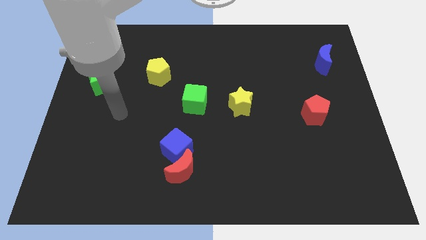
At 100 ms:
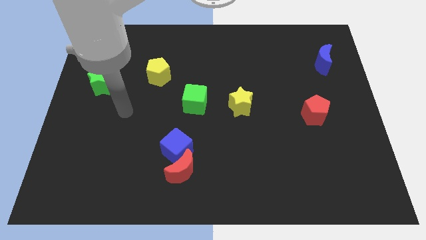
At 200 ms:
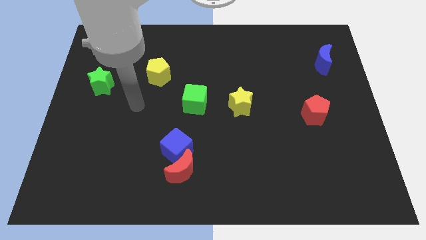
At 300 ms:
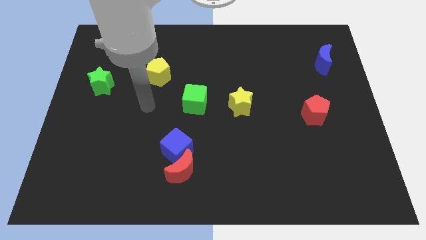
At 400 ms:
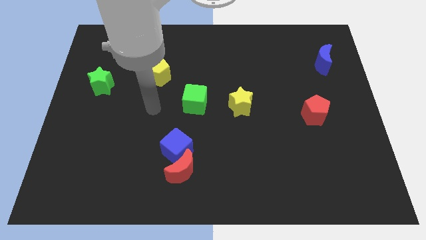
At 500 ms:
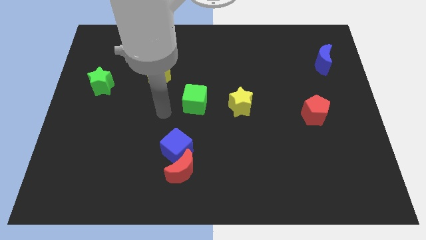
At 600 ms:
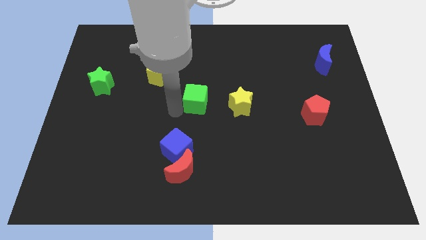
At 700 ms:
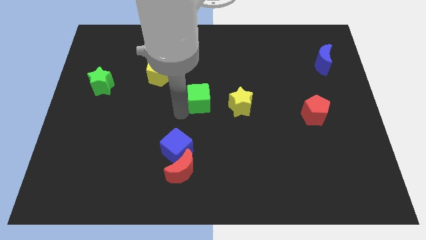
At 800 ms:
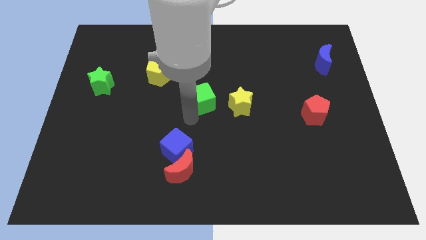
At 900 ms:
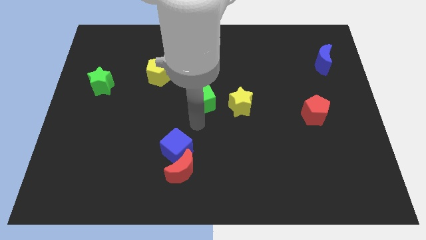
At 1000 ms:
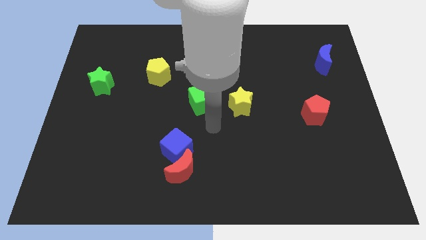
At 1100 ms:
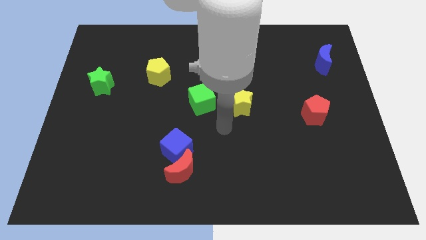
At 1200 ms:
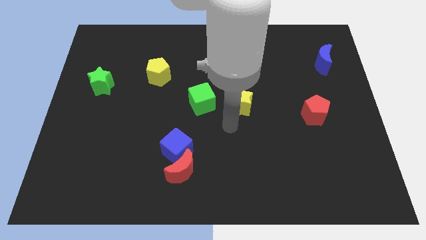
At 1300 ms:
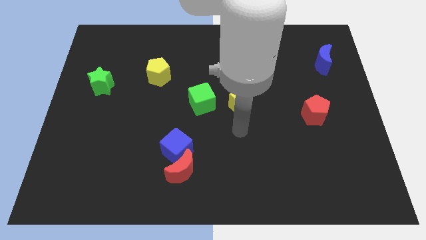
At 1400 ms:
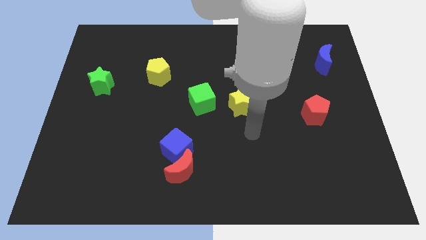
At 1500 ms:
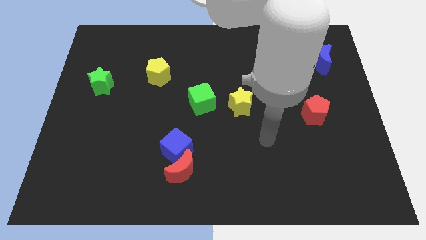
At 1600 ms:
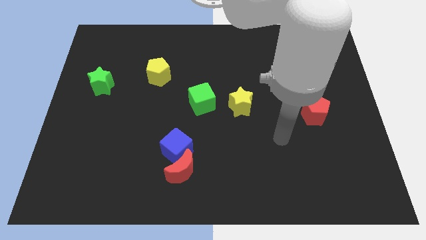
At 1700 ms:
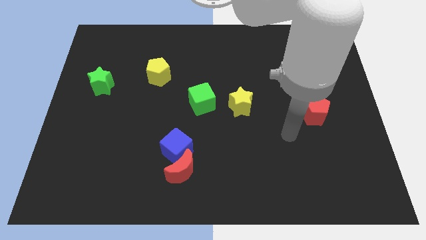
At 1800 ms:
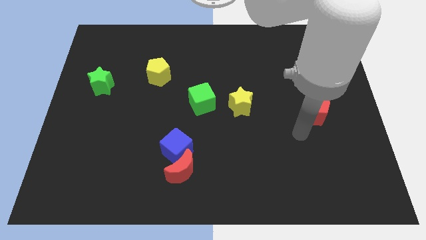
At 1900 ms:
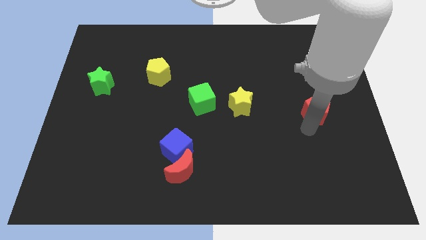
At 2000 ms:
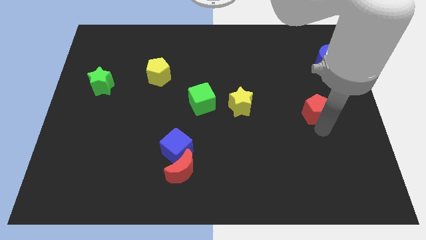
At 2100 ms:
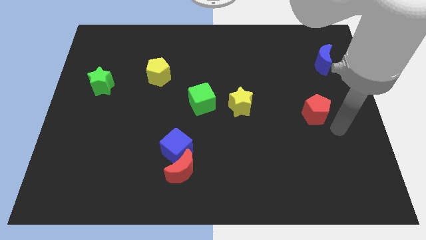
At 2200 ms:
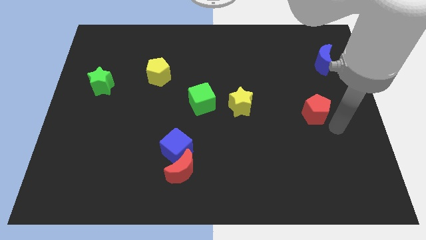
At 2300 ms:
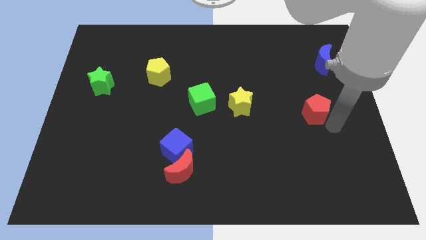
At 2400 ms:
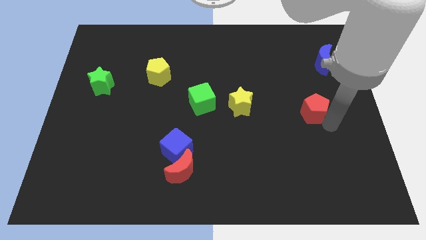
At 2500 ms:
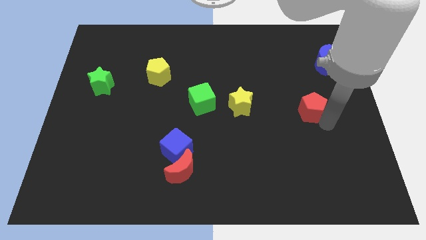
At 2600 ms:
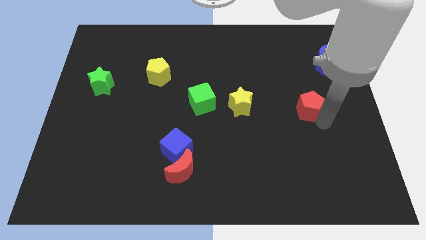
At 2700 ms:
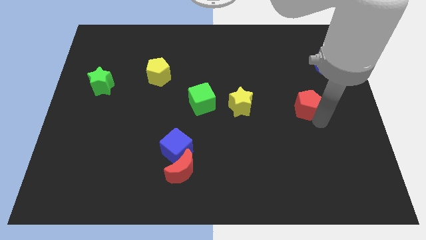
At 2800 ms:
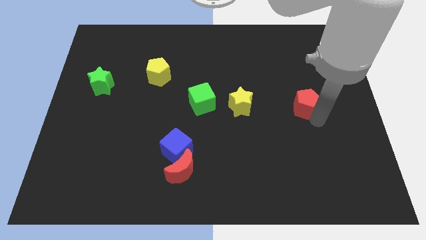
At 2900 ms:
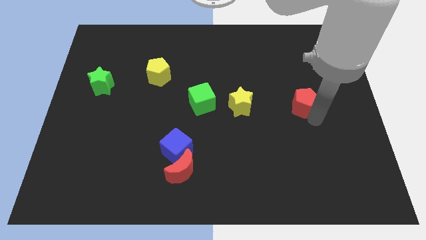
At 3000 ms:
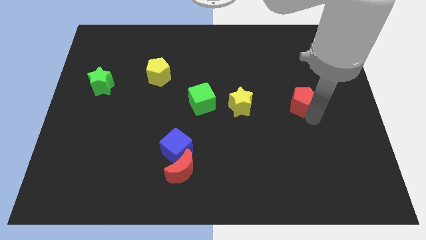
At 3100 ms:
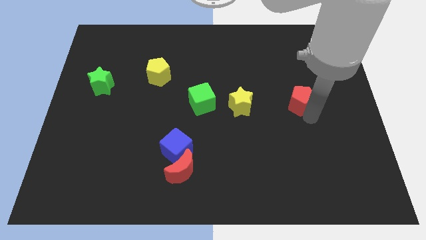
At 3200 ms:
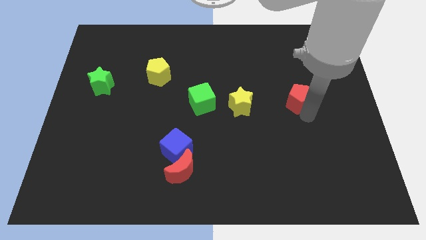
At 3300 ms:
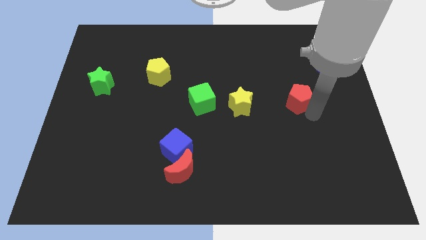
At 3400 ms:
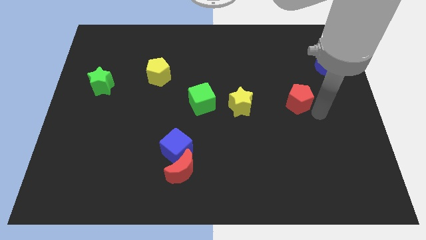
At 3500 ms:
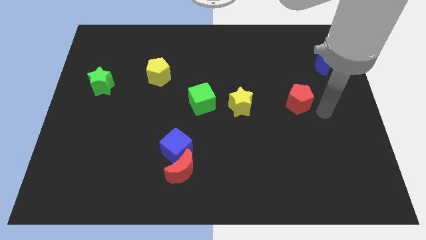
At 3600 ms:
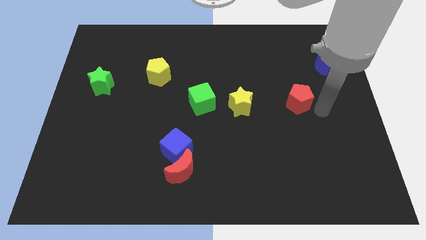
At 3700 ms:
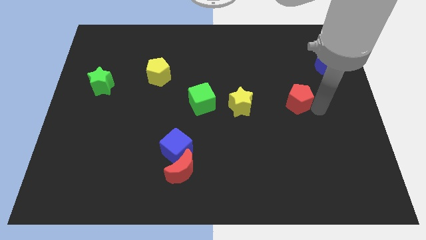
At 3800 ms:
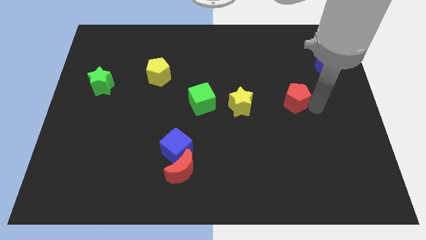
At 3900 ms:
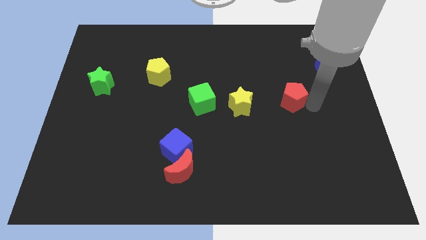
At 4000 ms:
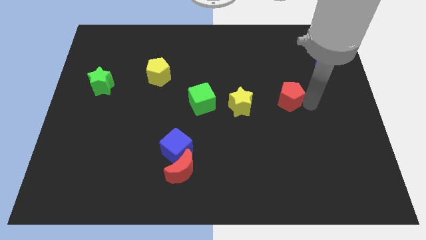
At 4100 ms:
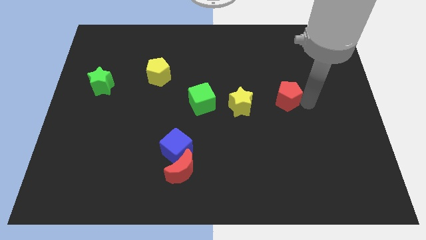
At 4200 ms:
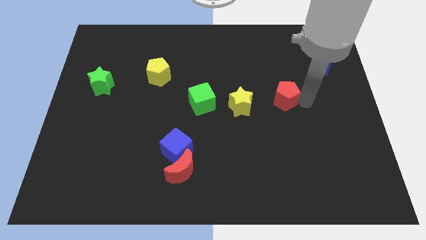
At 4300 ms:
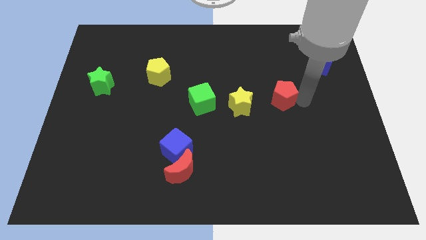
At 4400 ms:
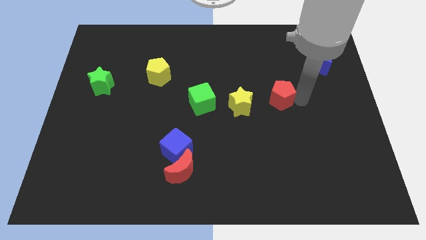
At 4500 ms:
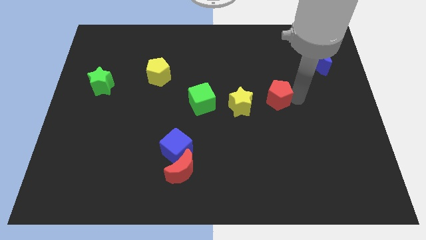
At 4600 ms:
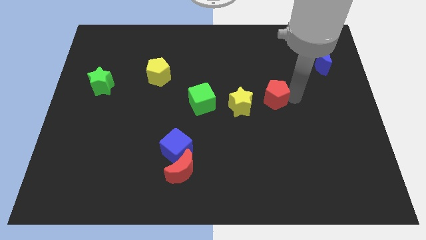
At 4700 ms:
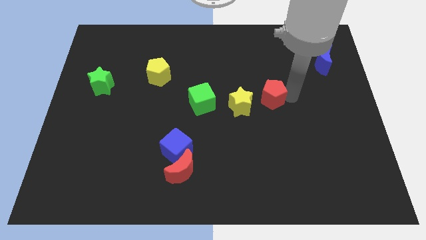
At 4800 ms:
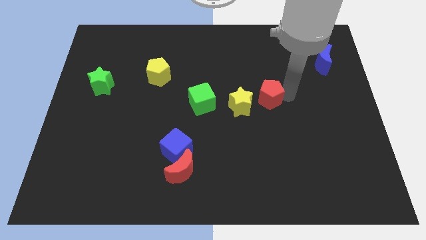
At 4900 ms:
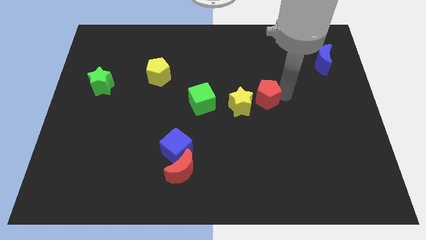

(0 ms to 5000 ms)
slide the red pentagon to the middle
